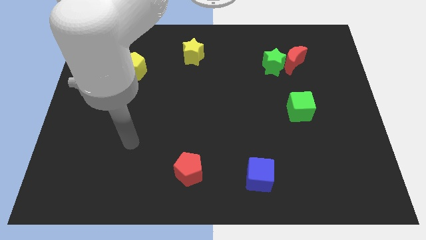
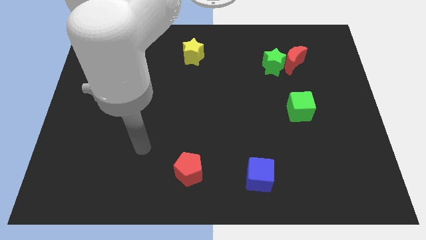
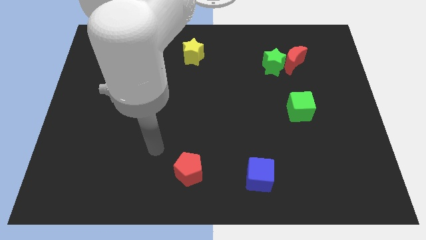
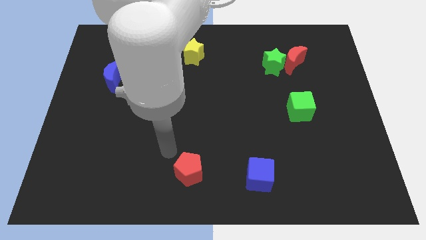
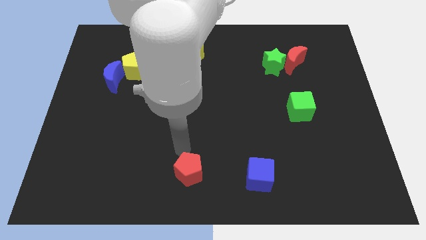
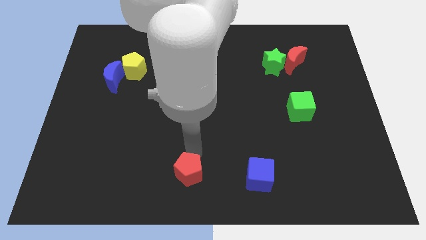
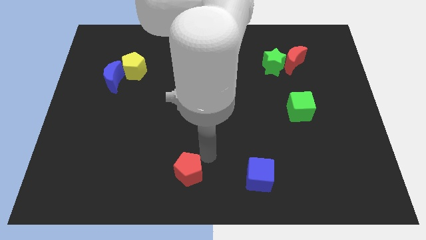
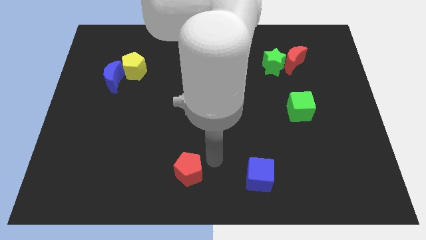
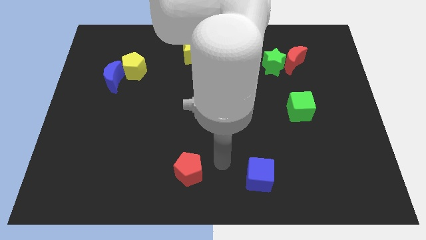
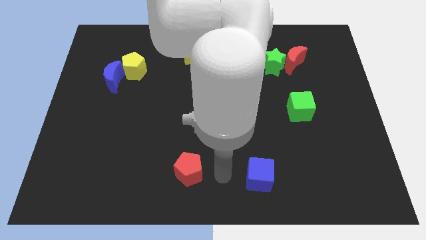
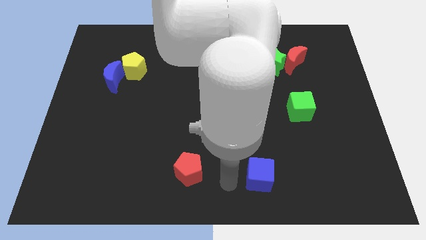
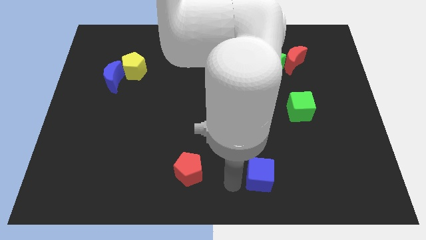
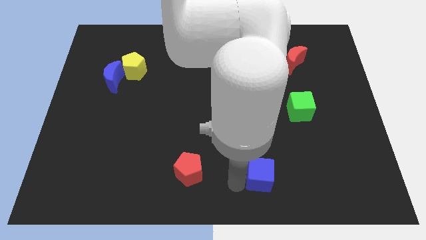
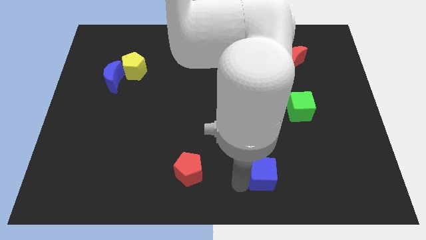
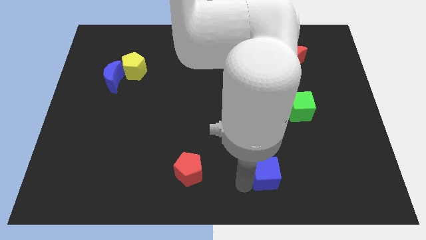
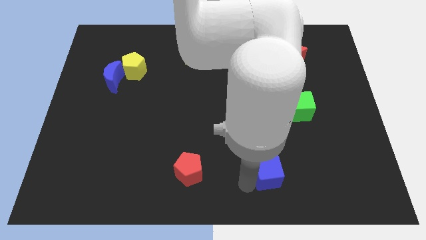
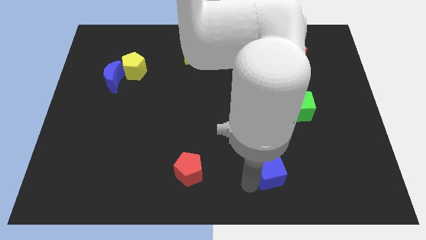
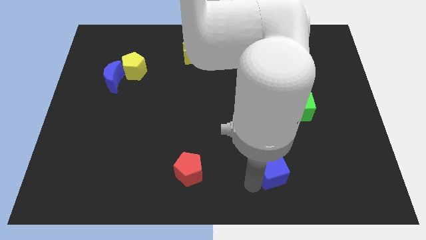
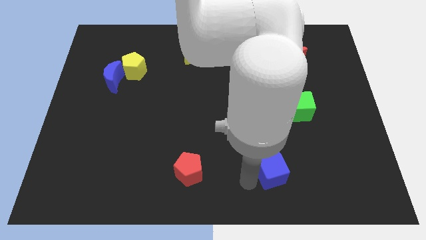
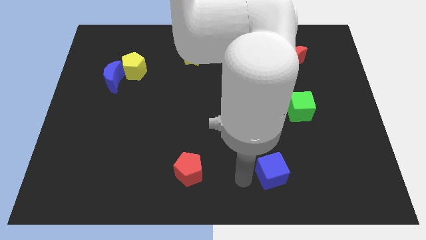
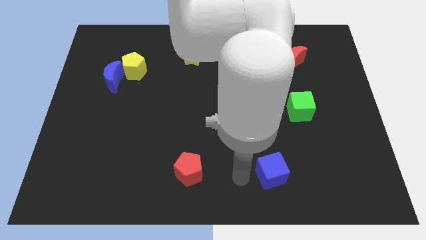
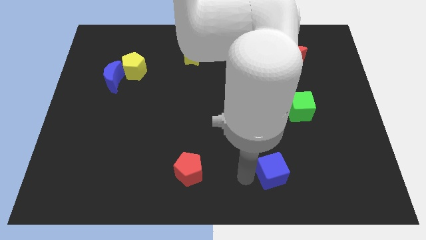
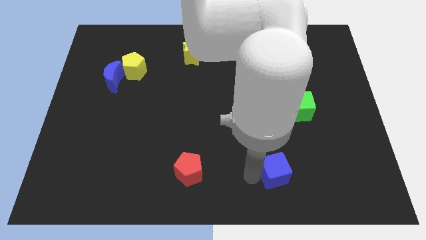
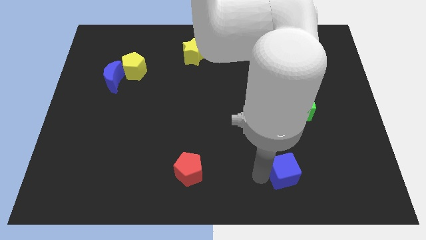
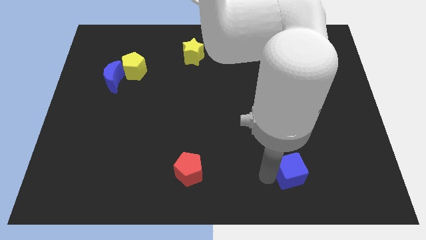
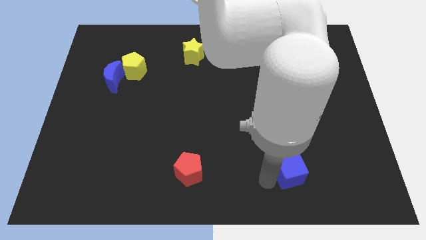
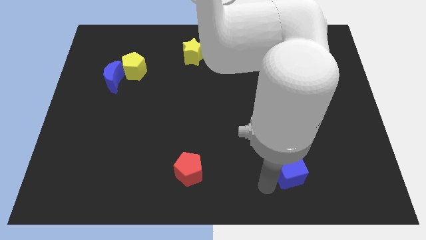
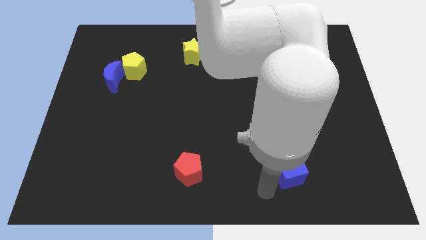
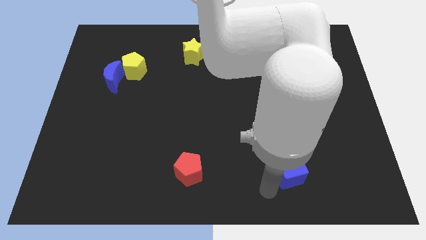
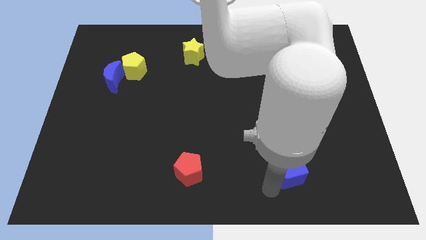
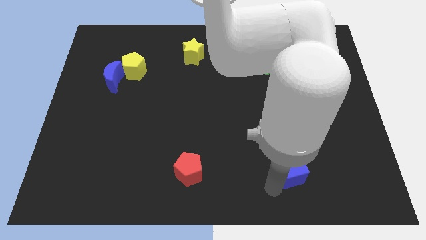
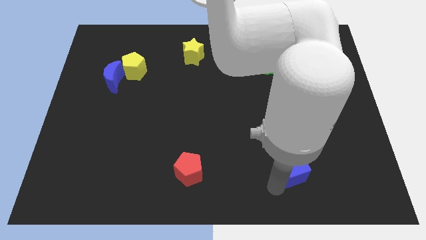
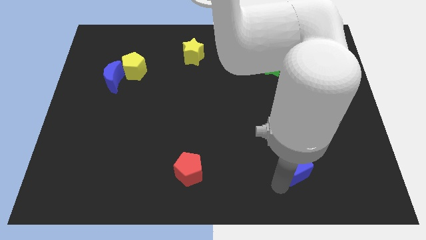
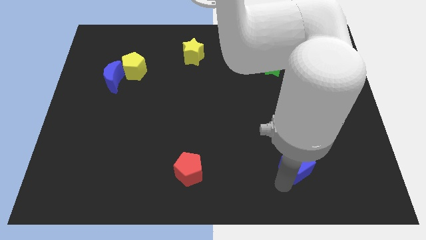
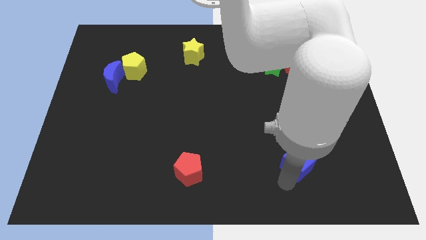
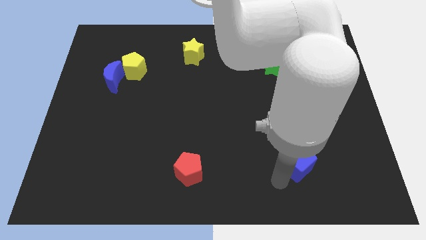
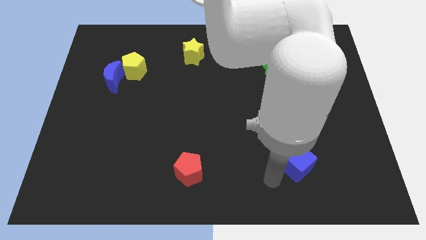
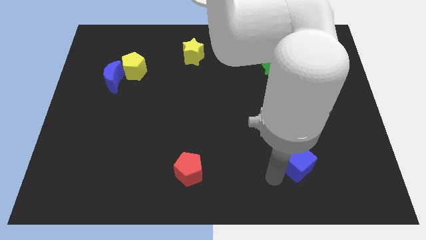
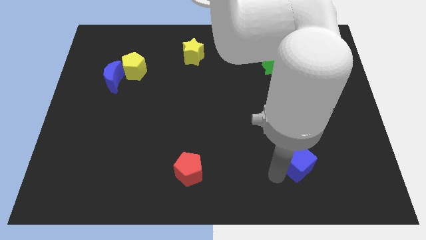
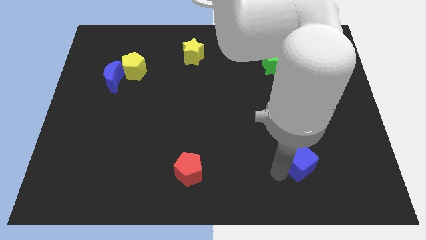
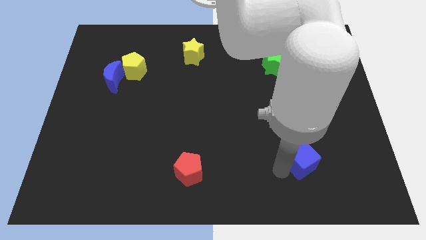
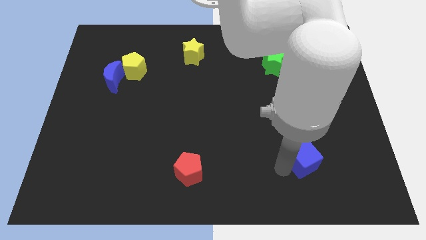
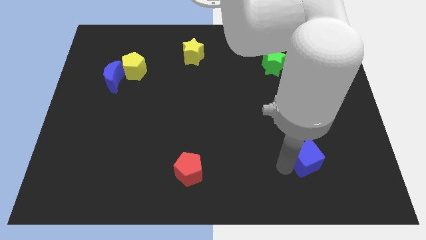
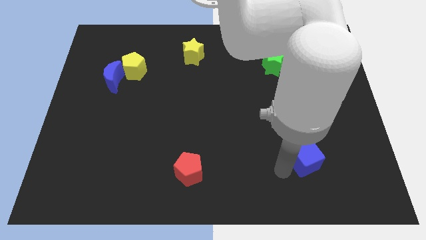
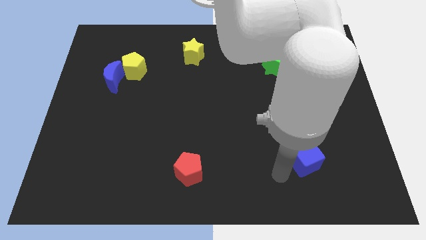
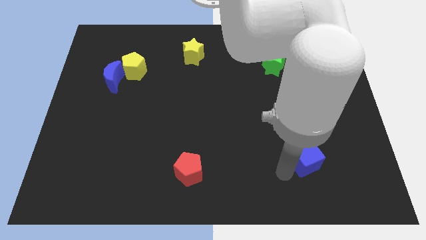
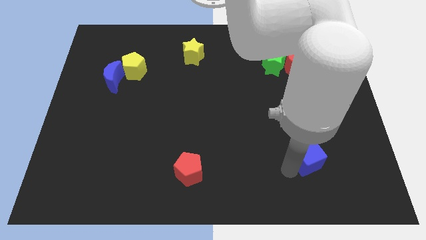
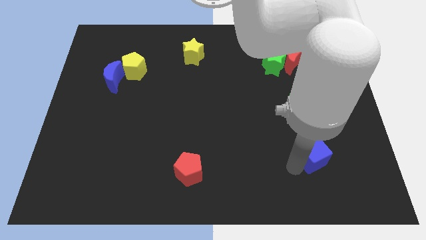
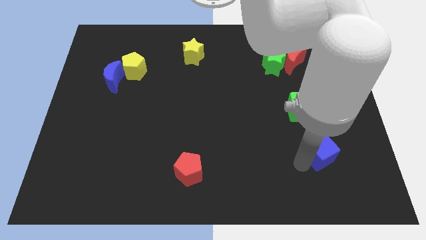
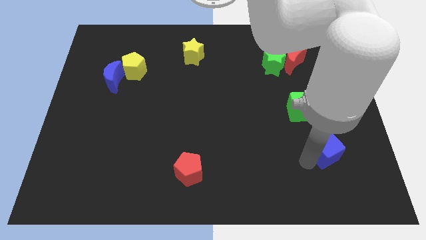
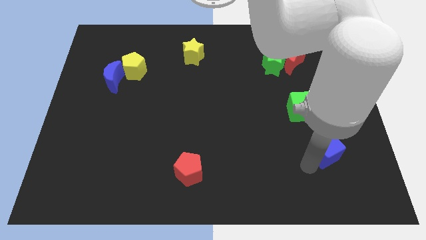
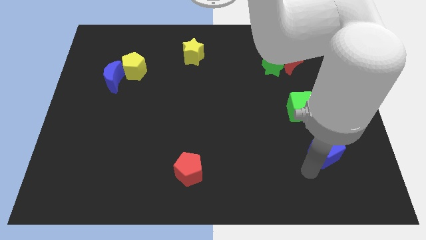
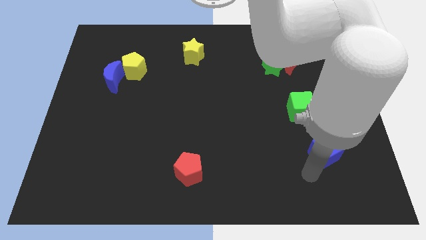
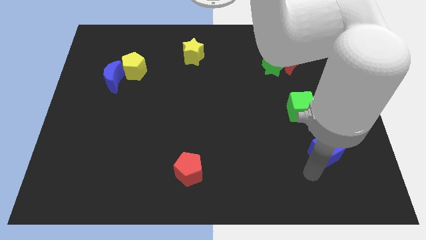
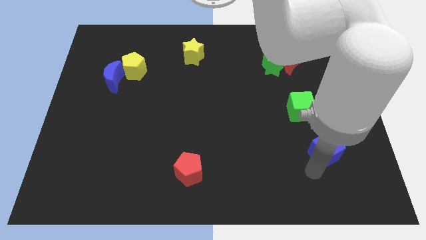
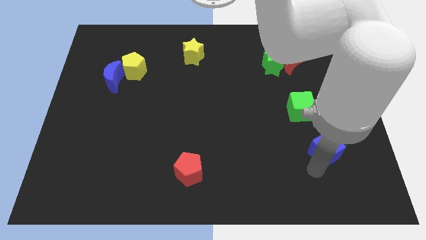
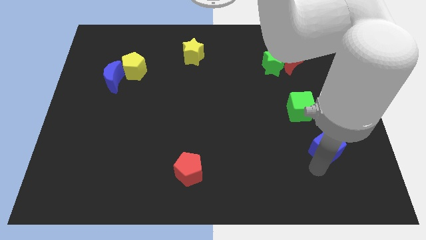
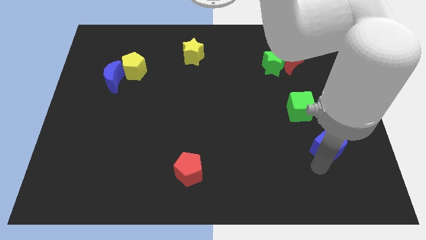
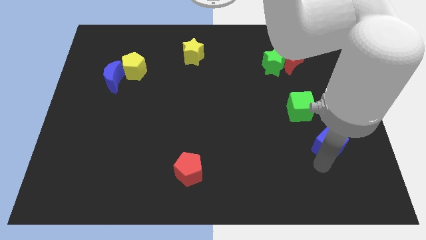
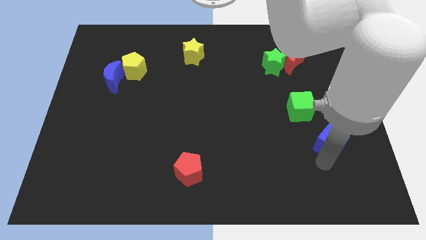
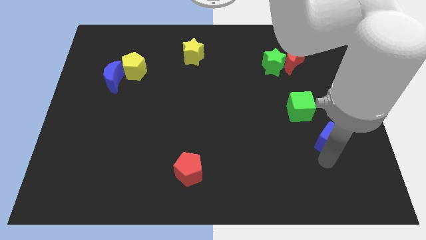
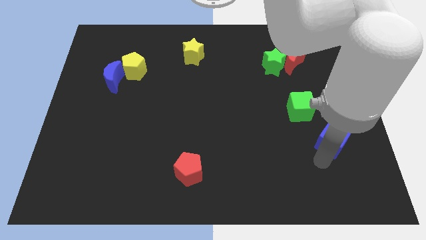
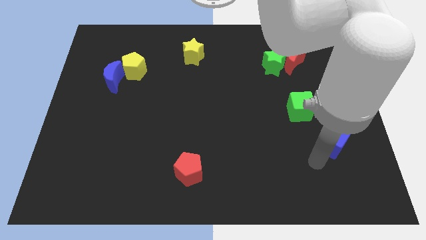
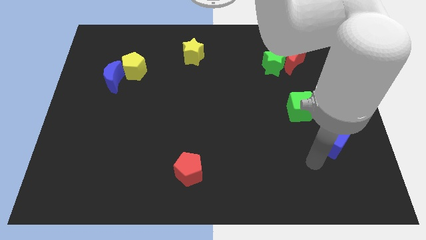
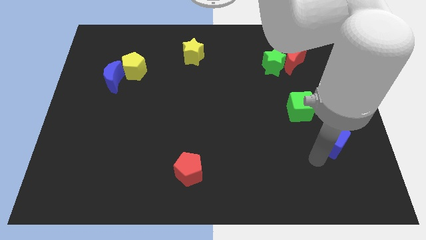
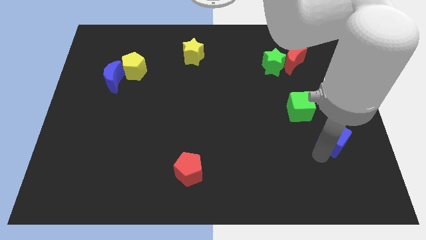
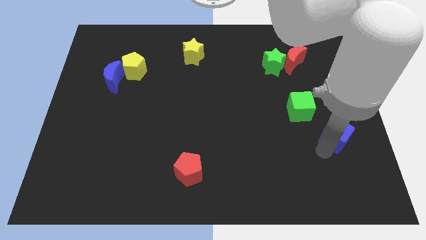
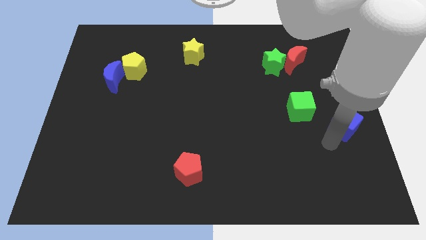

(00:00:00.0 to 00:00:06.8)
slide the blue cube to the right side
